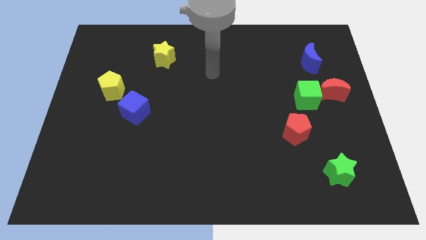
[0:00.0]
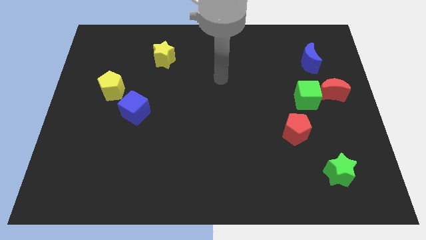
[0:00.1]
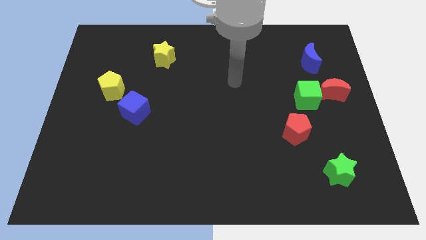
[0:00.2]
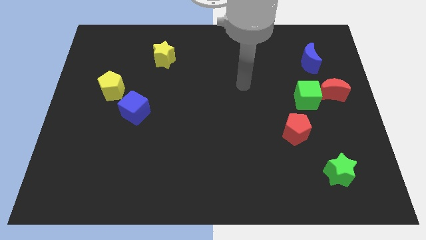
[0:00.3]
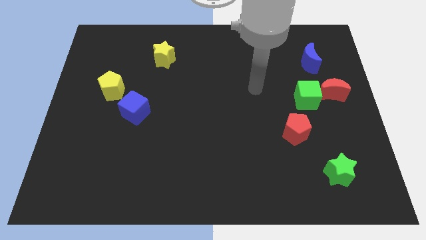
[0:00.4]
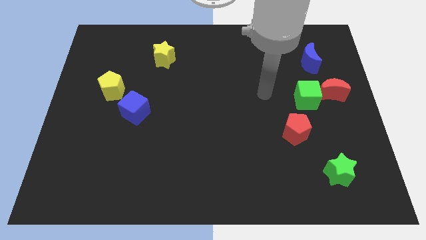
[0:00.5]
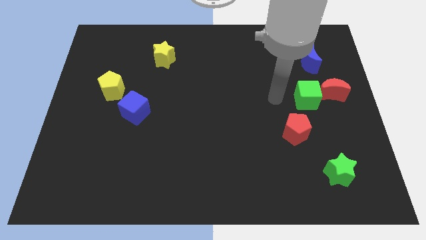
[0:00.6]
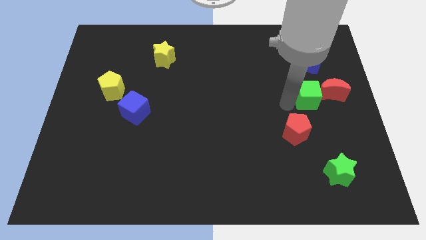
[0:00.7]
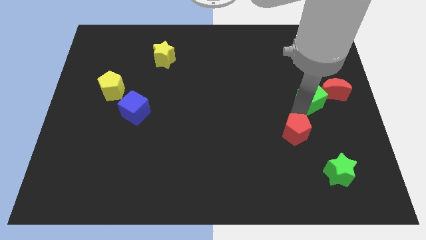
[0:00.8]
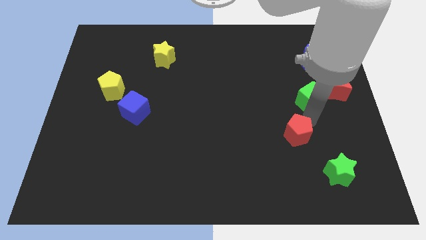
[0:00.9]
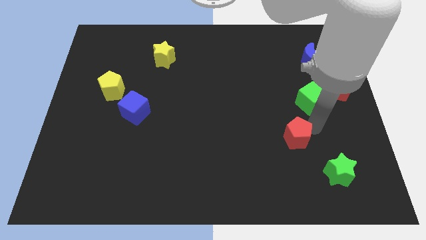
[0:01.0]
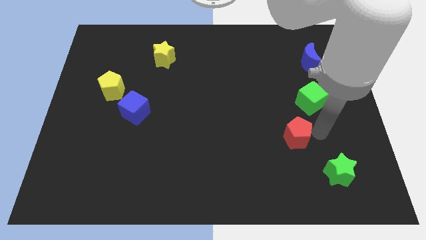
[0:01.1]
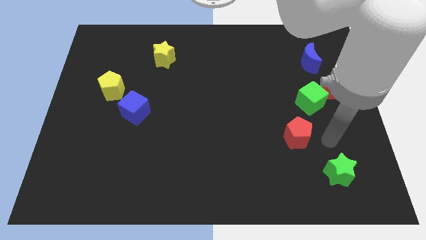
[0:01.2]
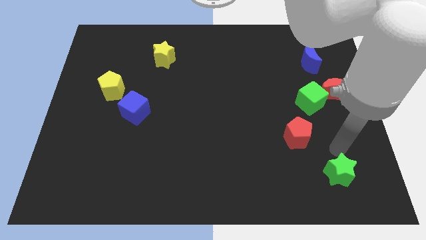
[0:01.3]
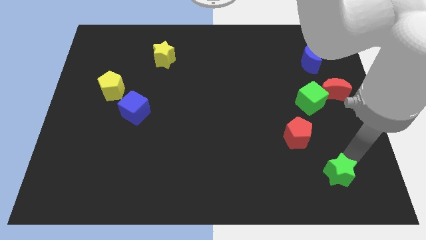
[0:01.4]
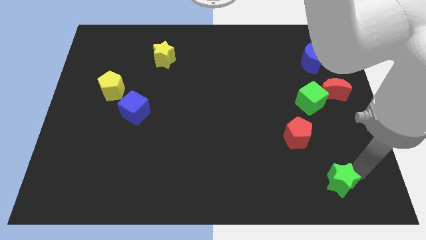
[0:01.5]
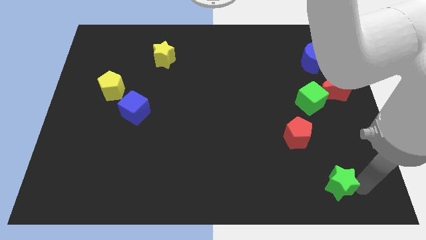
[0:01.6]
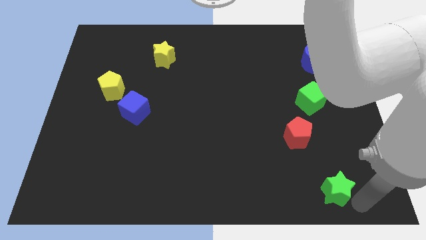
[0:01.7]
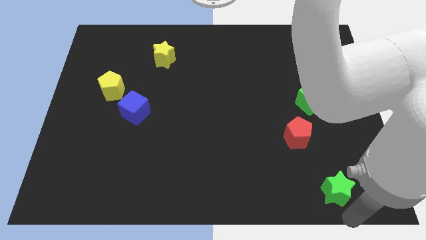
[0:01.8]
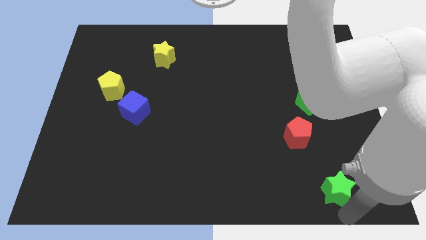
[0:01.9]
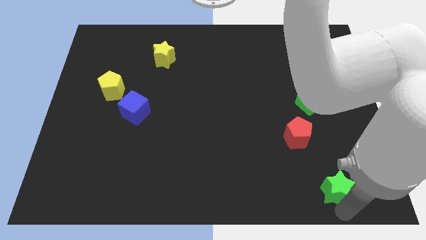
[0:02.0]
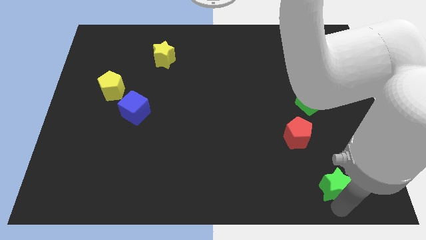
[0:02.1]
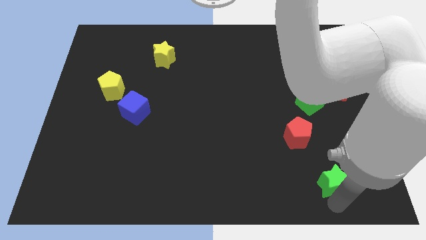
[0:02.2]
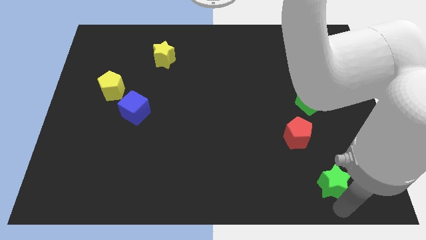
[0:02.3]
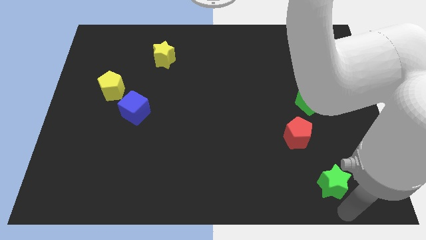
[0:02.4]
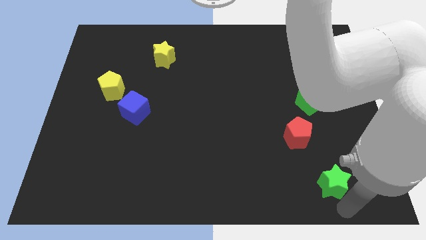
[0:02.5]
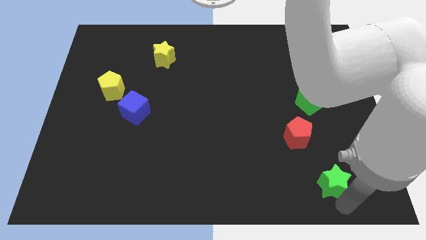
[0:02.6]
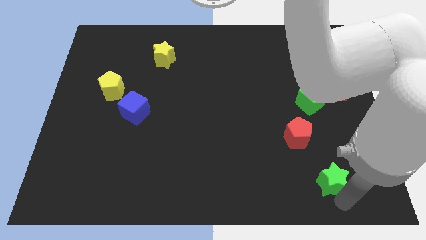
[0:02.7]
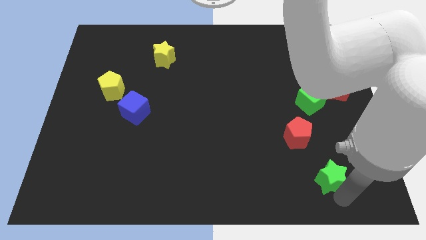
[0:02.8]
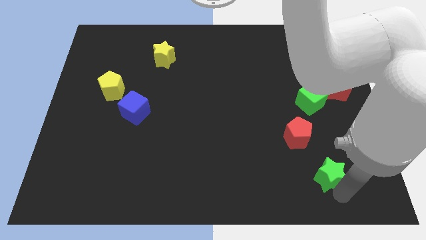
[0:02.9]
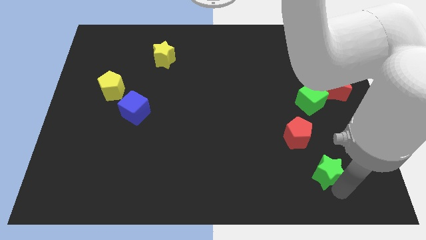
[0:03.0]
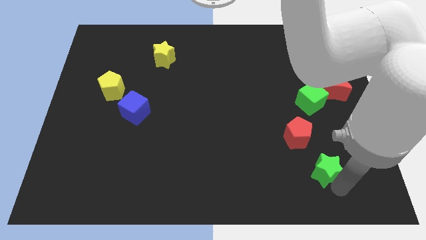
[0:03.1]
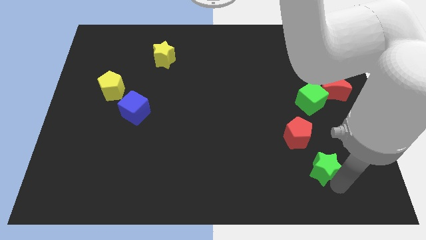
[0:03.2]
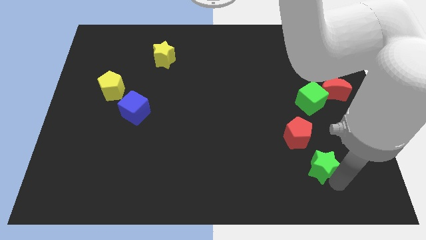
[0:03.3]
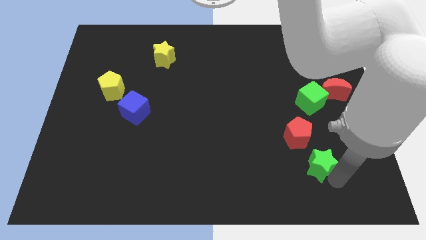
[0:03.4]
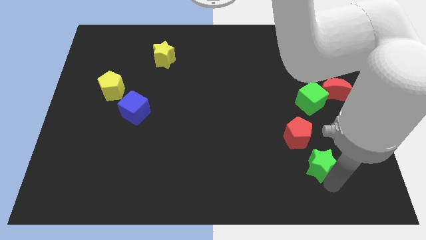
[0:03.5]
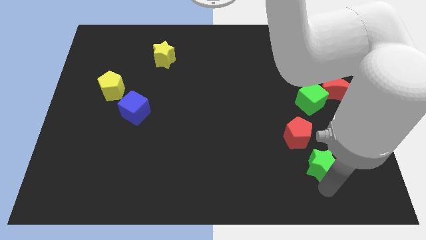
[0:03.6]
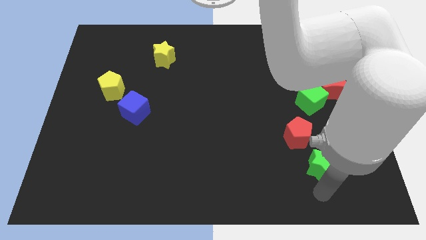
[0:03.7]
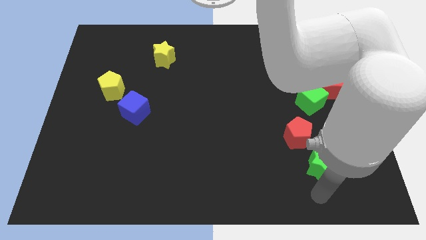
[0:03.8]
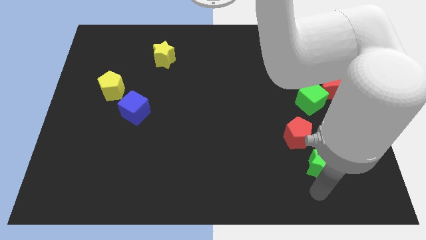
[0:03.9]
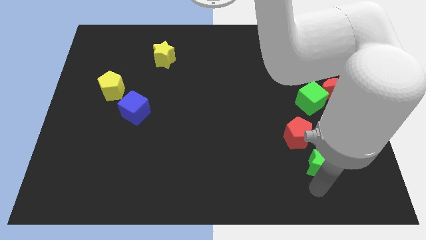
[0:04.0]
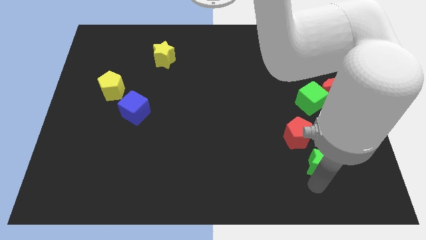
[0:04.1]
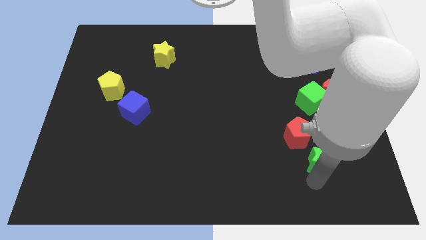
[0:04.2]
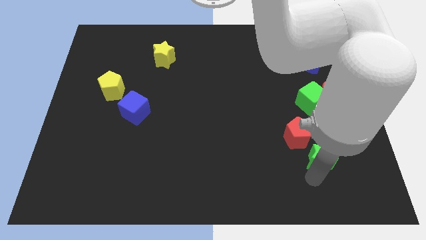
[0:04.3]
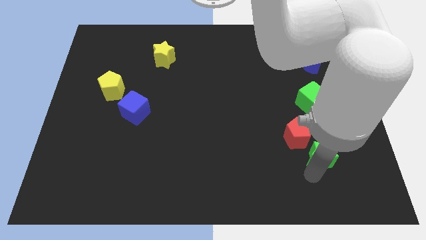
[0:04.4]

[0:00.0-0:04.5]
push the green star below the green cube

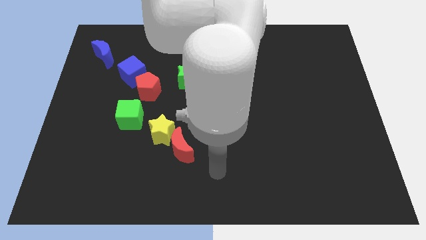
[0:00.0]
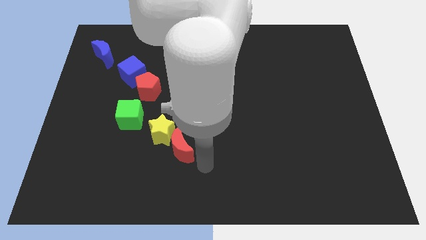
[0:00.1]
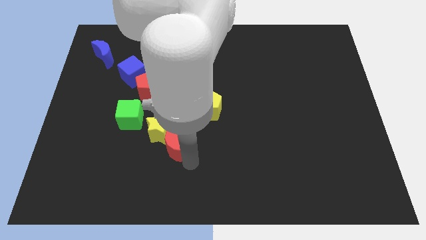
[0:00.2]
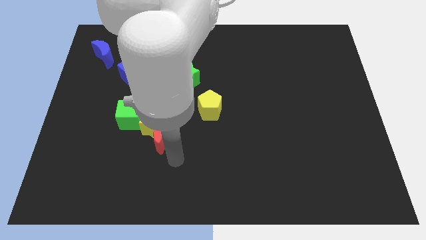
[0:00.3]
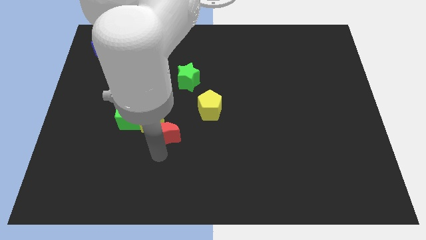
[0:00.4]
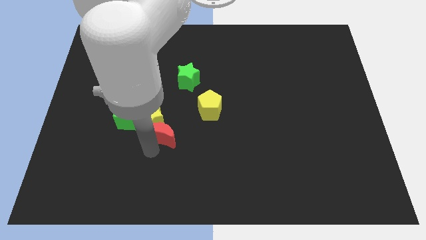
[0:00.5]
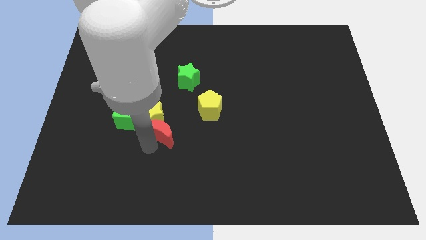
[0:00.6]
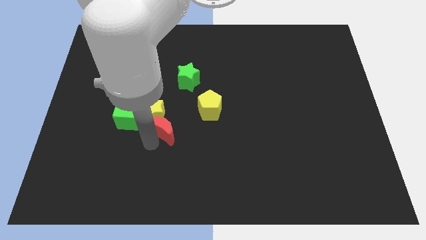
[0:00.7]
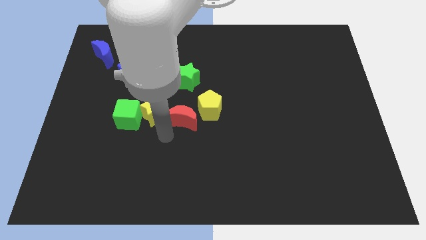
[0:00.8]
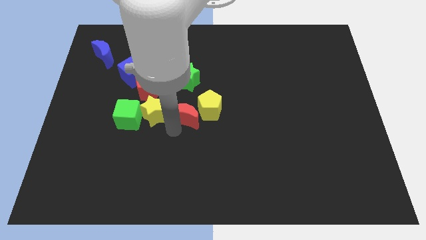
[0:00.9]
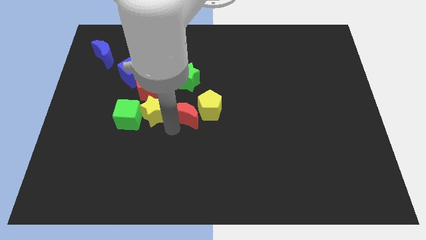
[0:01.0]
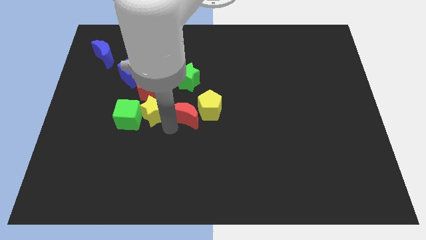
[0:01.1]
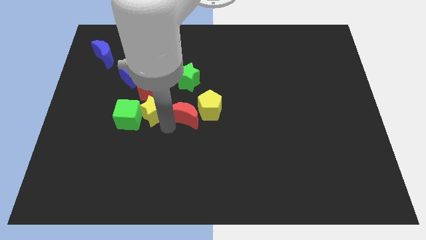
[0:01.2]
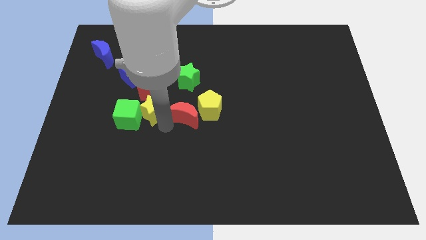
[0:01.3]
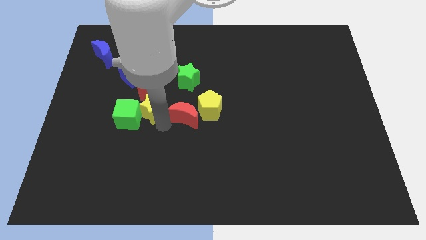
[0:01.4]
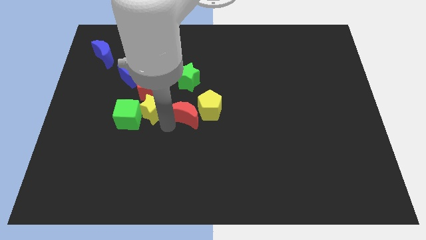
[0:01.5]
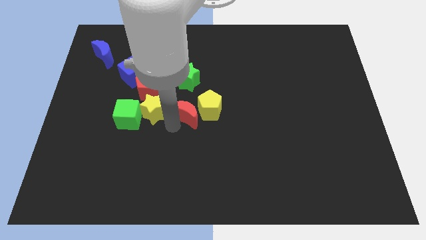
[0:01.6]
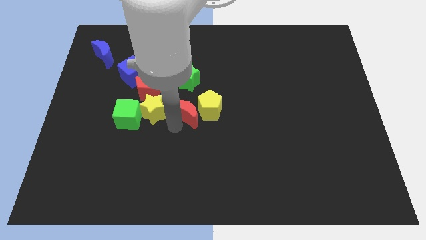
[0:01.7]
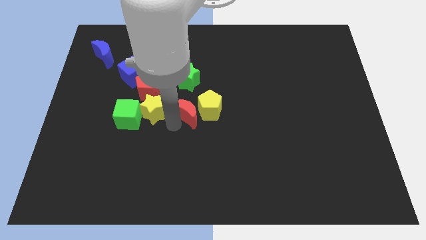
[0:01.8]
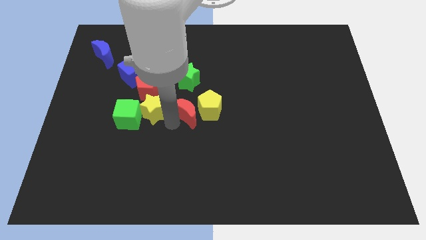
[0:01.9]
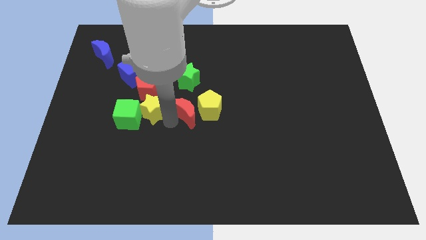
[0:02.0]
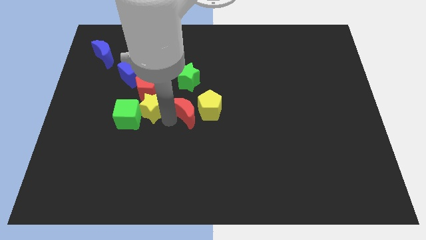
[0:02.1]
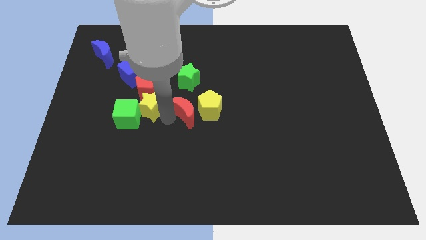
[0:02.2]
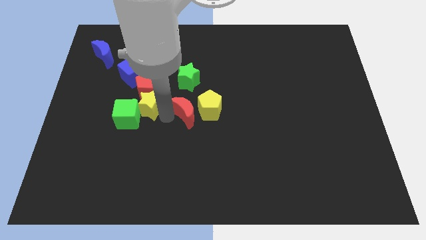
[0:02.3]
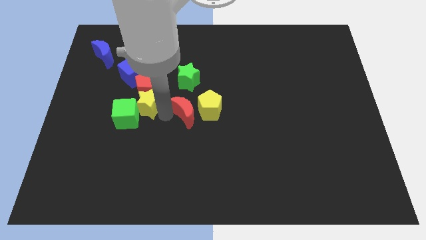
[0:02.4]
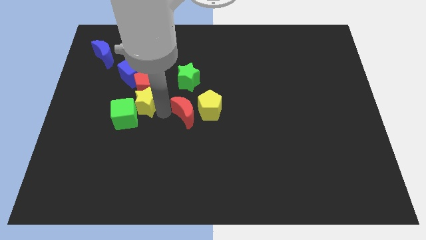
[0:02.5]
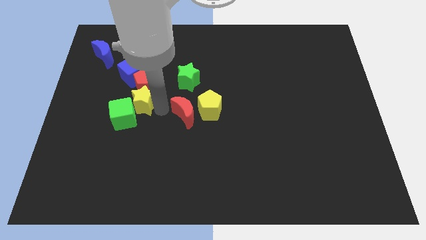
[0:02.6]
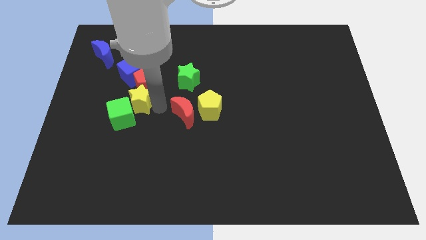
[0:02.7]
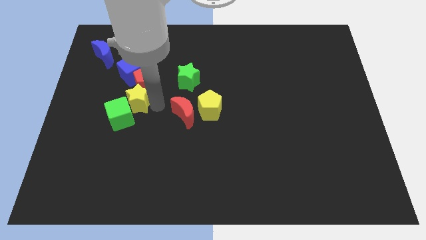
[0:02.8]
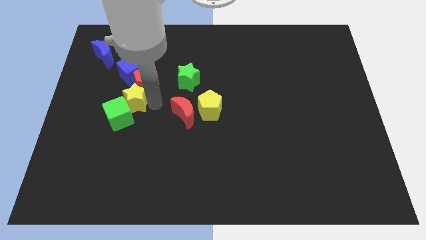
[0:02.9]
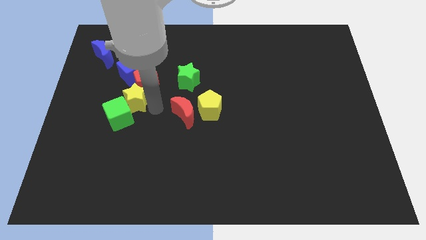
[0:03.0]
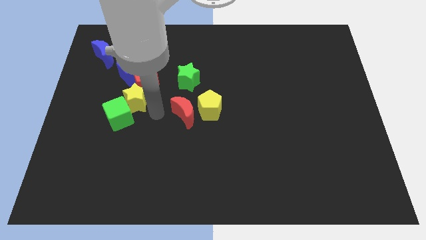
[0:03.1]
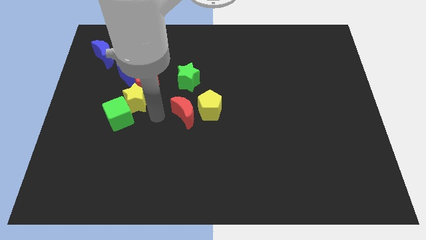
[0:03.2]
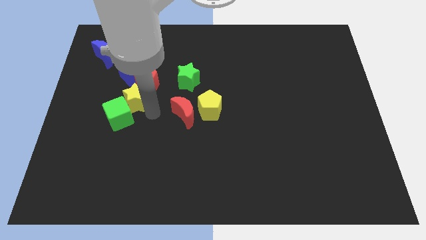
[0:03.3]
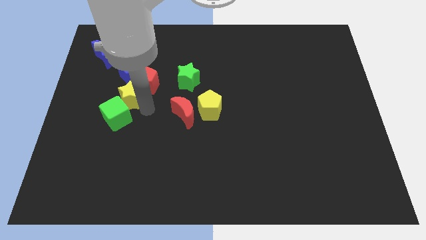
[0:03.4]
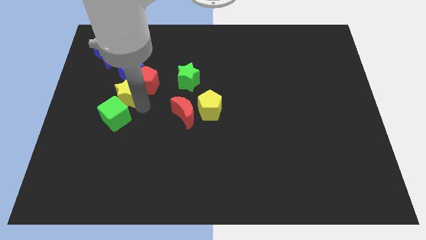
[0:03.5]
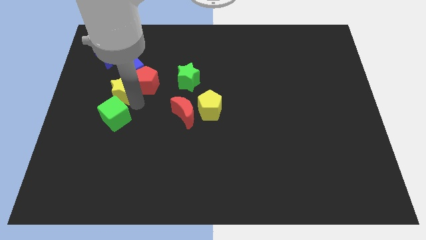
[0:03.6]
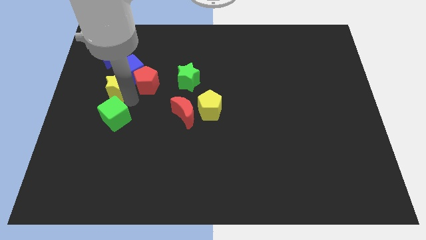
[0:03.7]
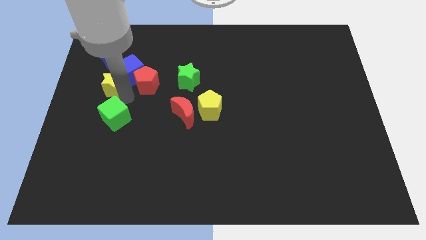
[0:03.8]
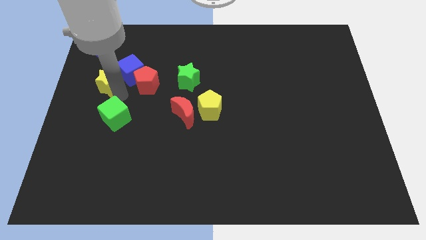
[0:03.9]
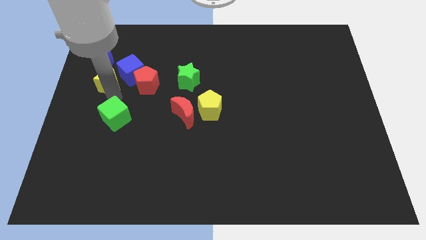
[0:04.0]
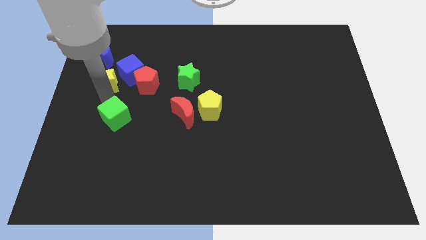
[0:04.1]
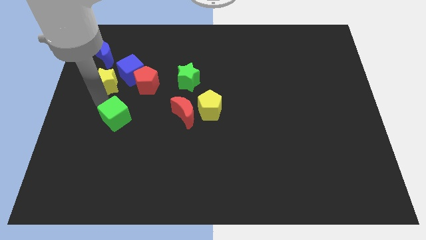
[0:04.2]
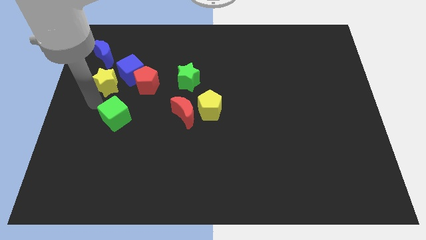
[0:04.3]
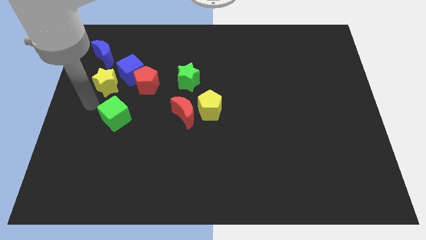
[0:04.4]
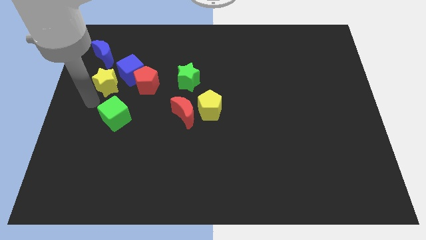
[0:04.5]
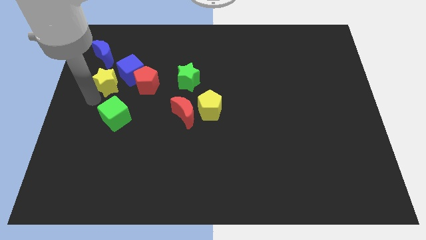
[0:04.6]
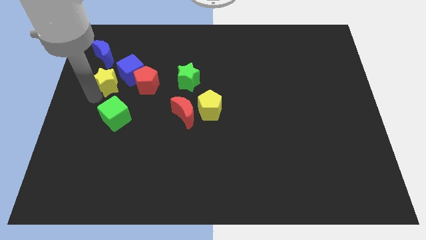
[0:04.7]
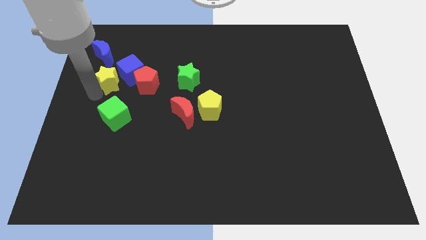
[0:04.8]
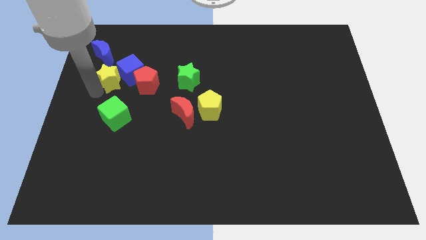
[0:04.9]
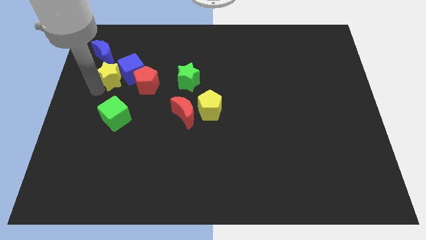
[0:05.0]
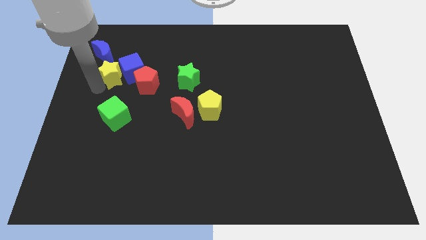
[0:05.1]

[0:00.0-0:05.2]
put the yellow star to the top left of the red pentagon
